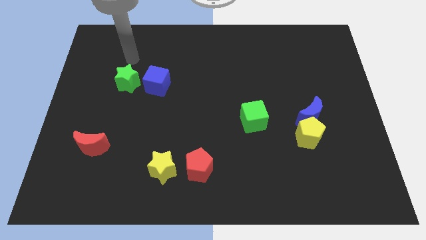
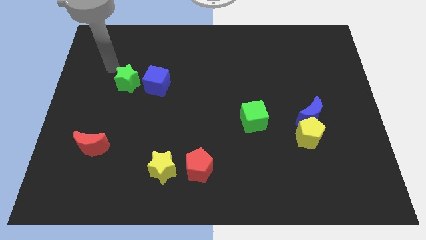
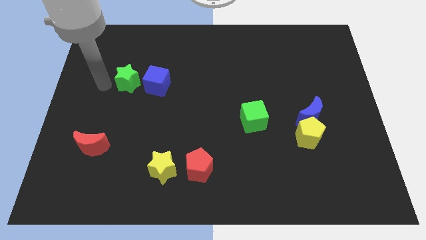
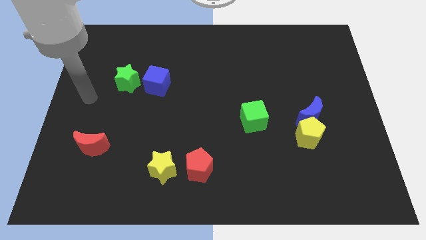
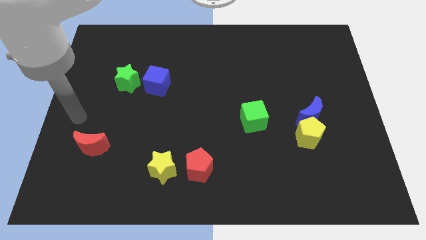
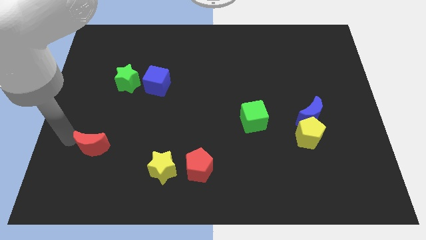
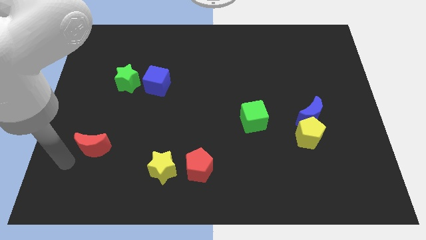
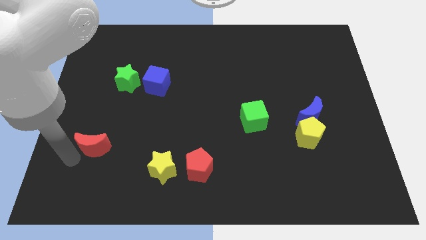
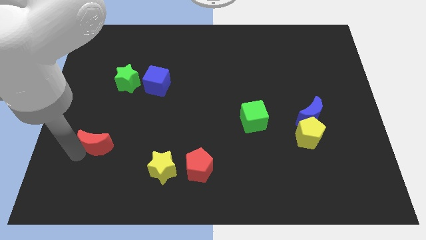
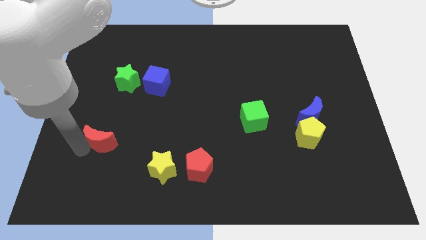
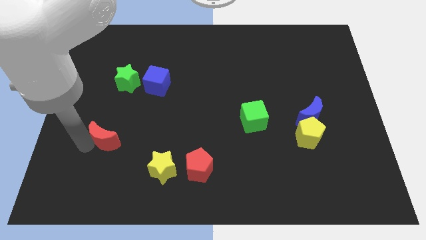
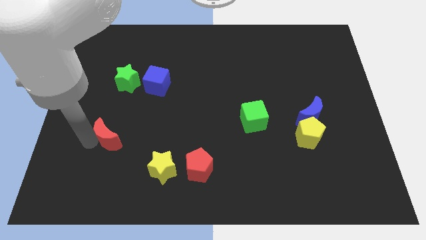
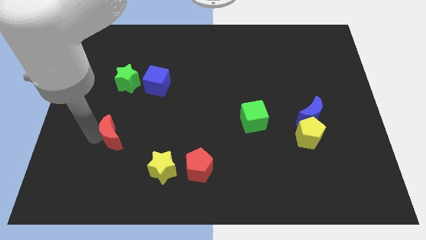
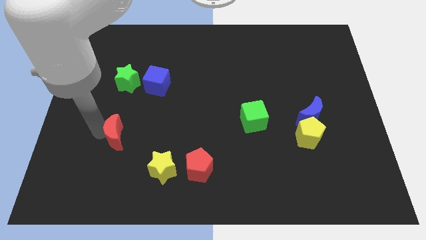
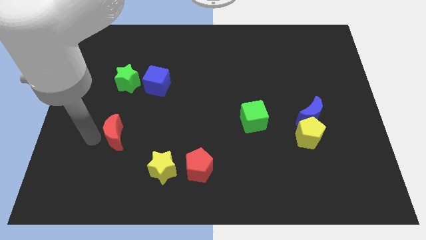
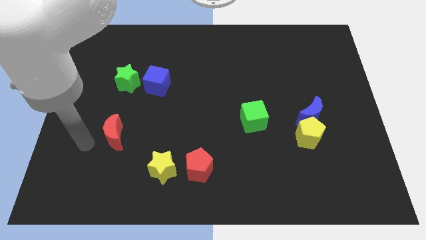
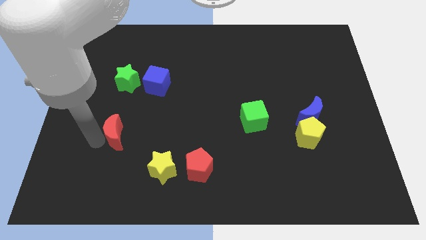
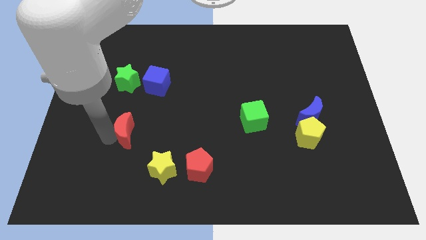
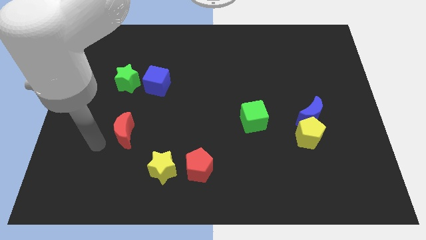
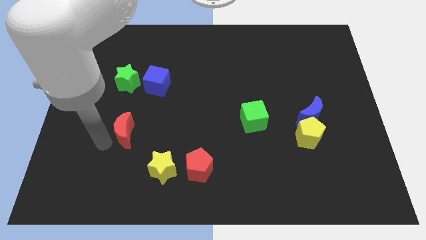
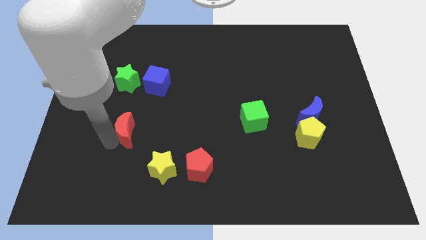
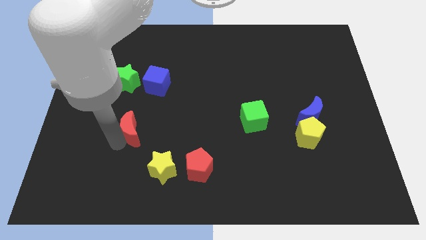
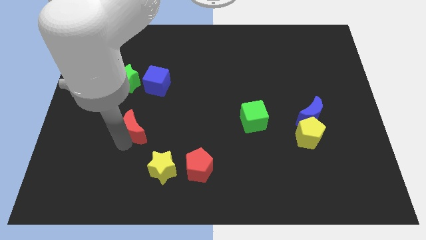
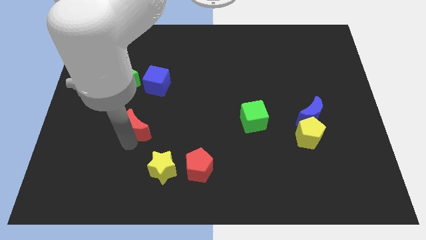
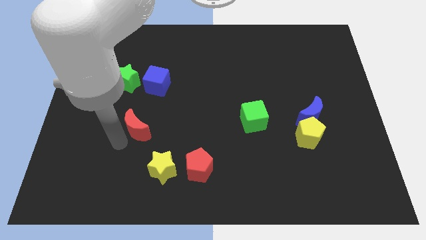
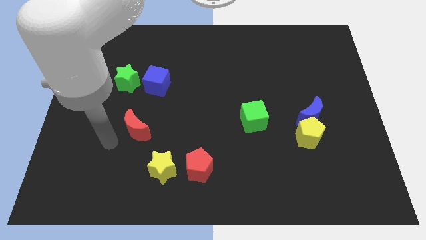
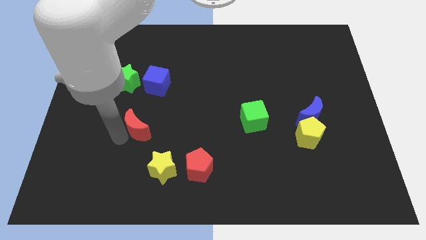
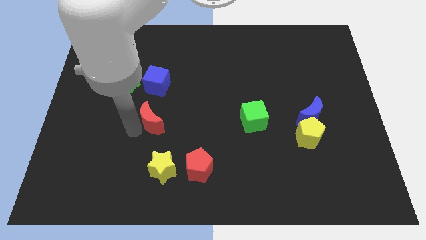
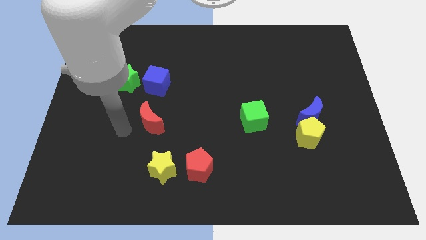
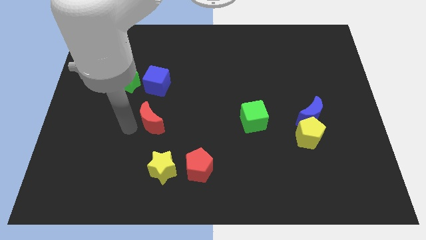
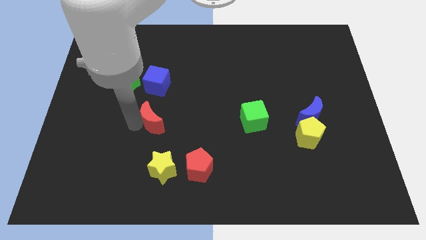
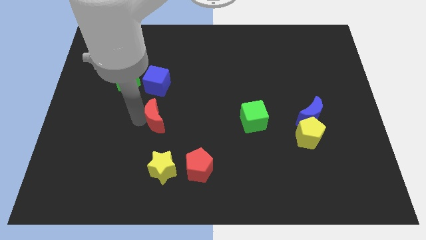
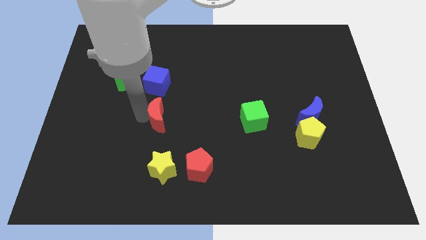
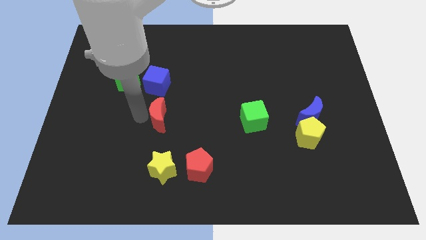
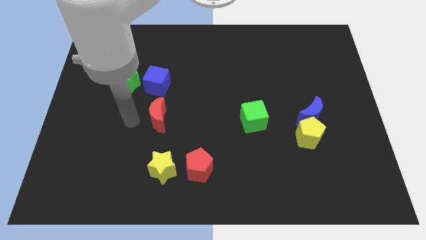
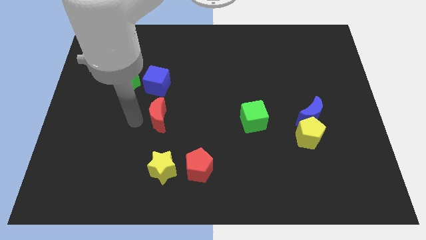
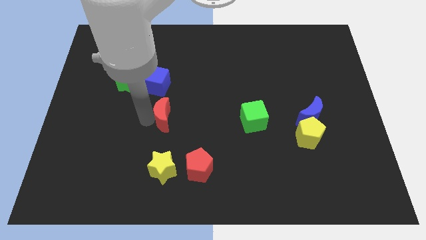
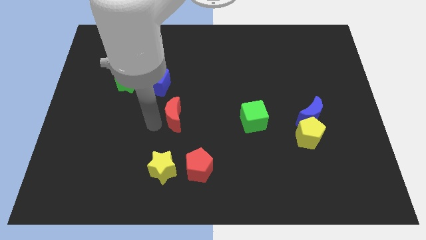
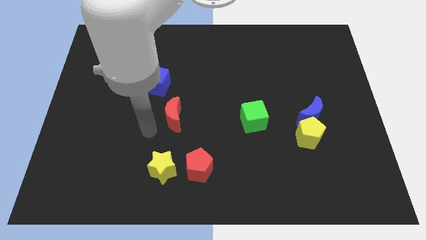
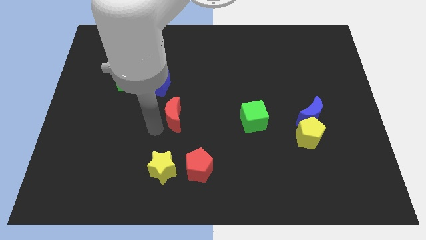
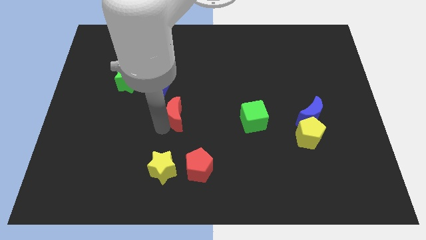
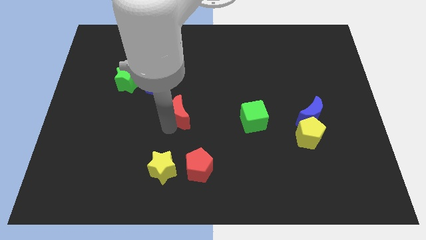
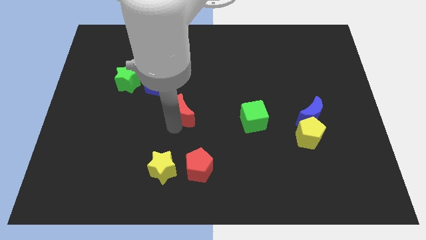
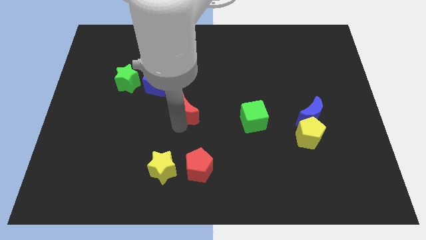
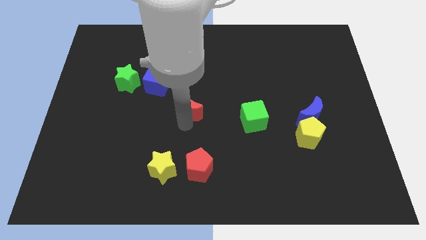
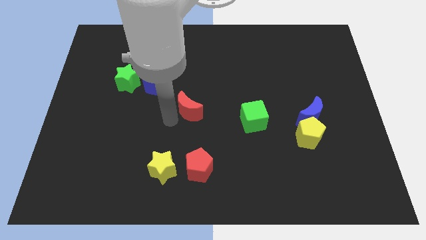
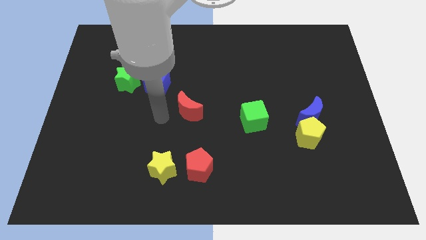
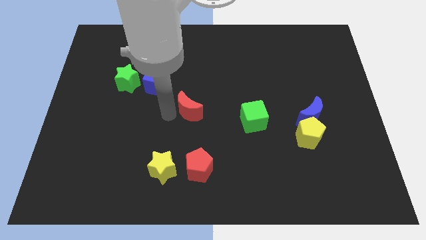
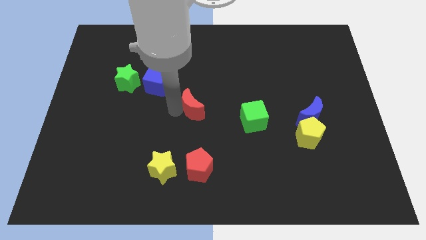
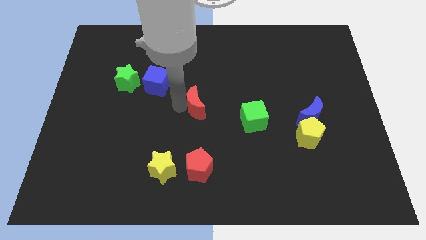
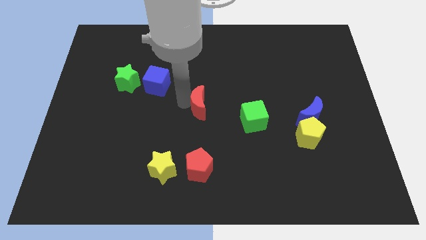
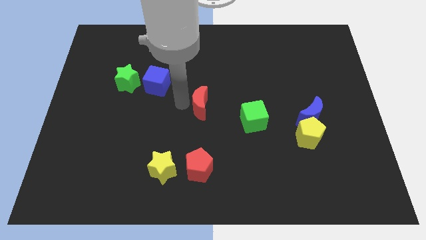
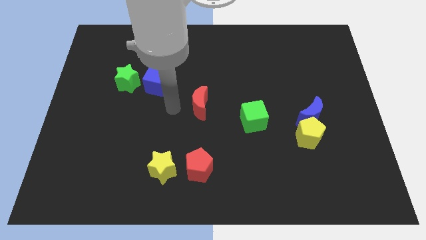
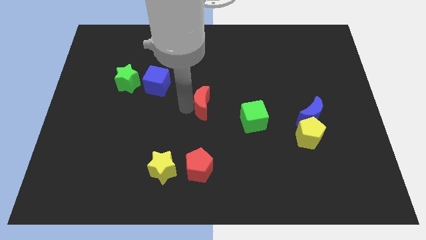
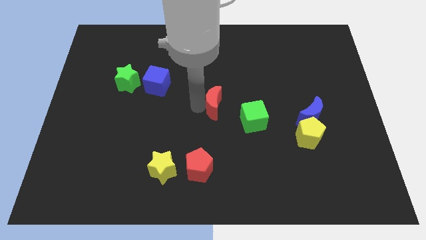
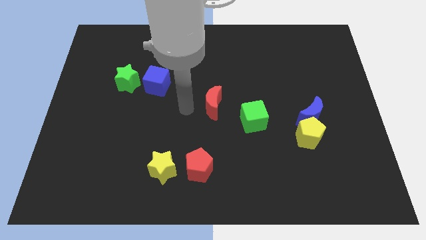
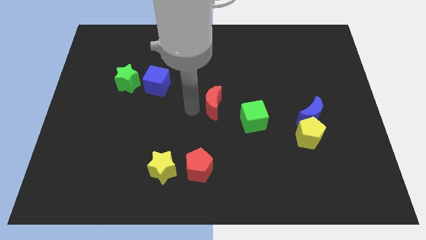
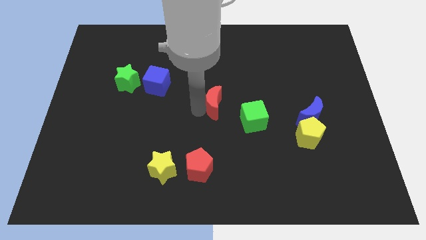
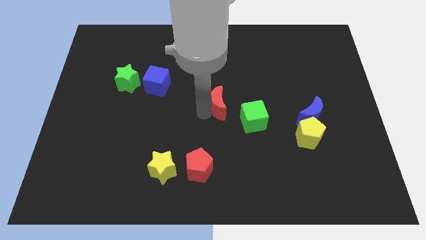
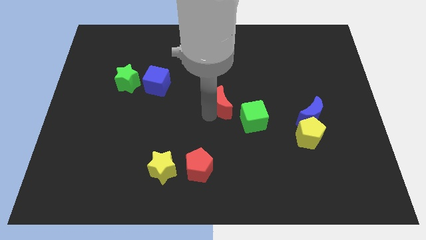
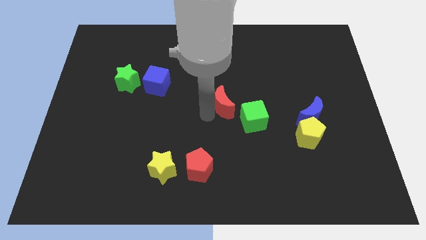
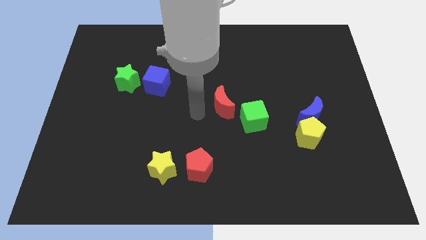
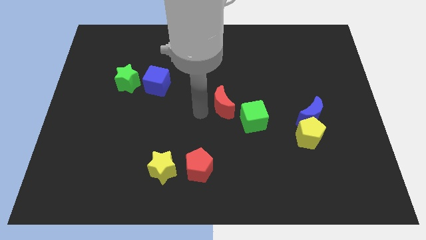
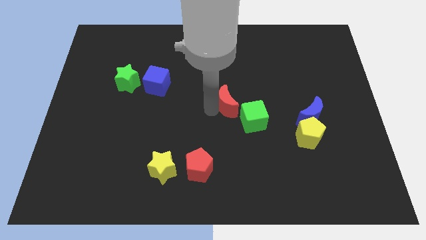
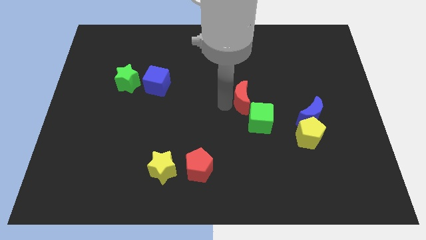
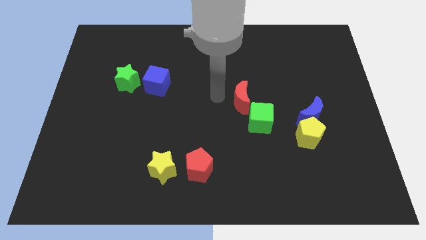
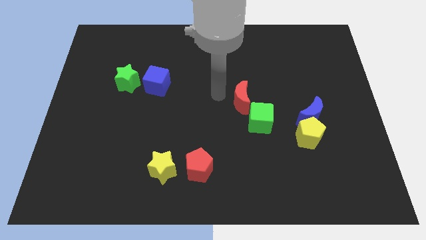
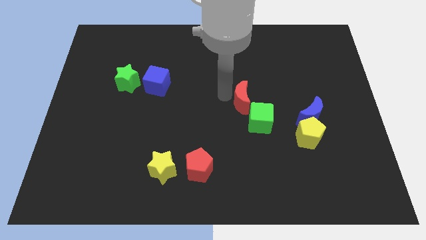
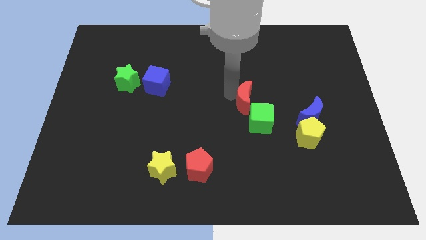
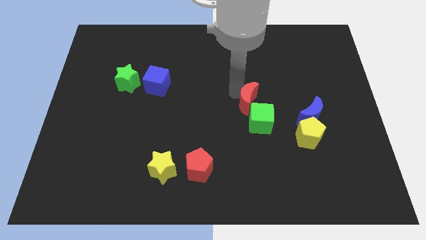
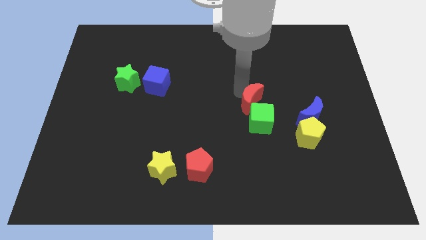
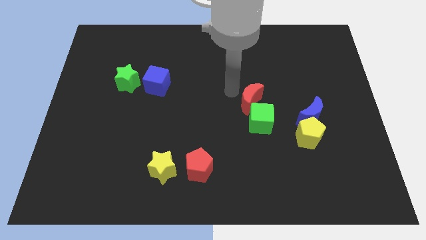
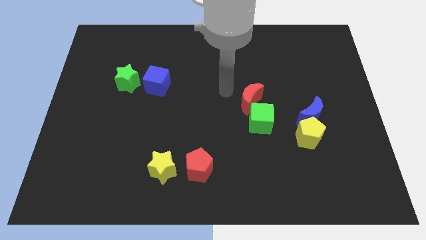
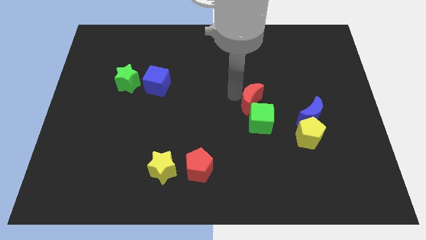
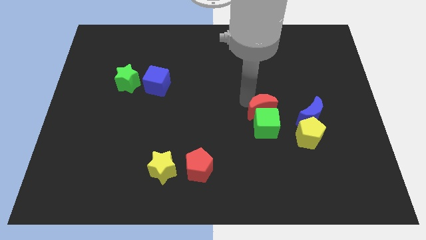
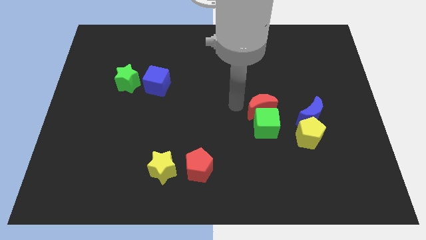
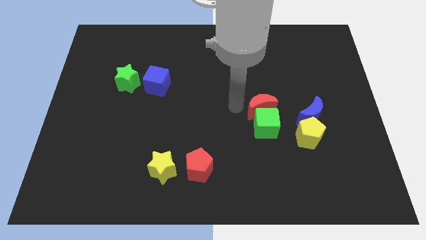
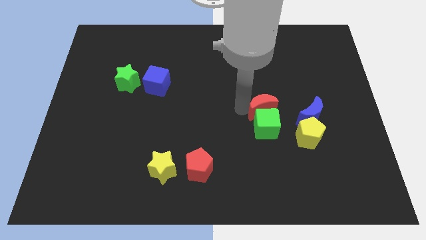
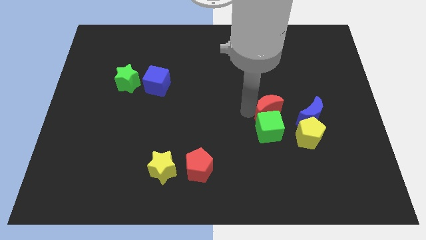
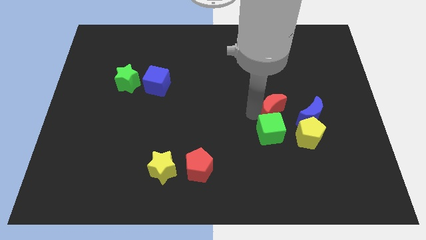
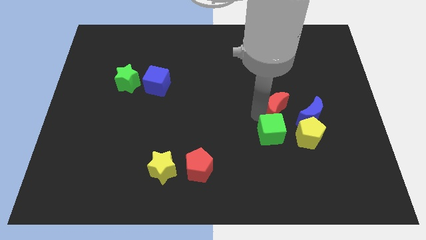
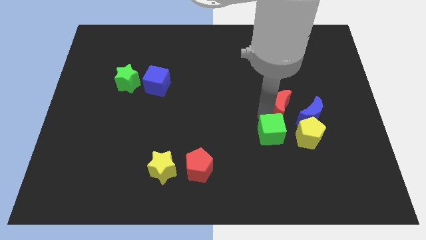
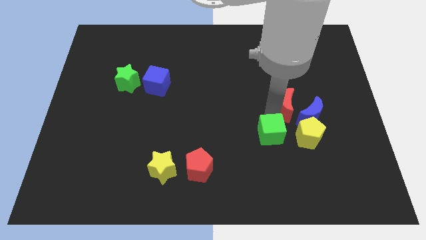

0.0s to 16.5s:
slide the red moon close to the blue moon
